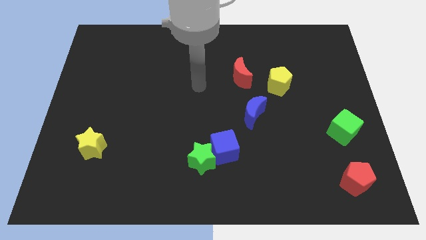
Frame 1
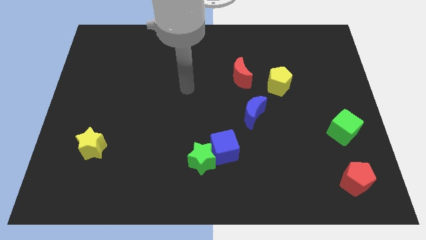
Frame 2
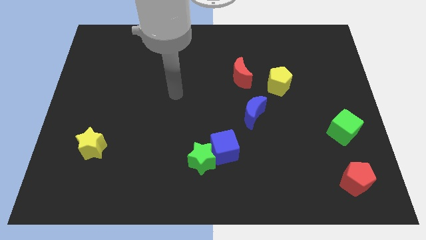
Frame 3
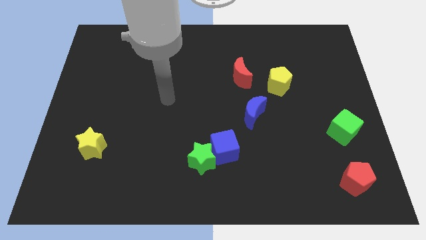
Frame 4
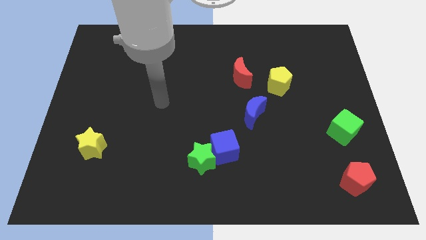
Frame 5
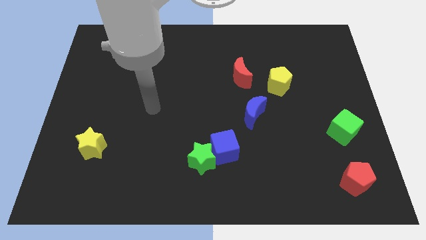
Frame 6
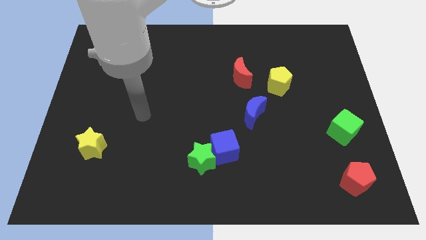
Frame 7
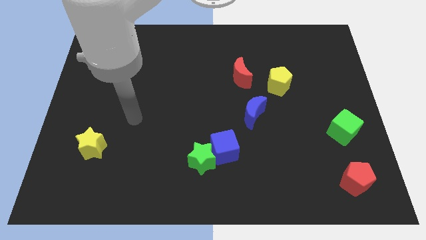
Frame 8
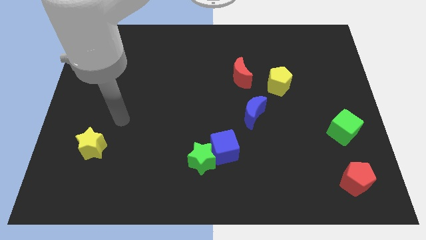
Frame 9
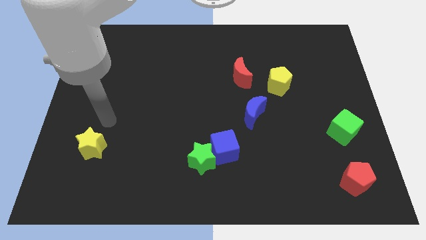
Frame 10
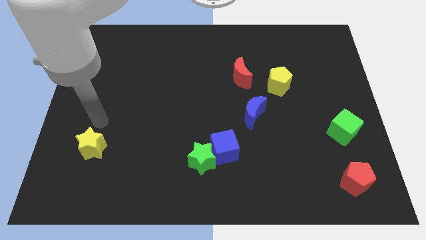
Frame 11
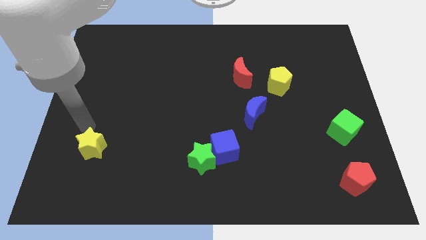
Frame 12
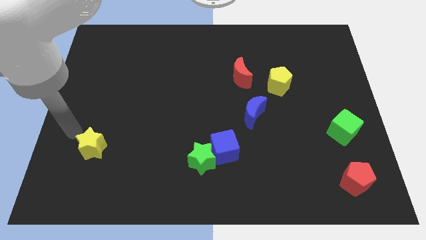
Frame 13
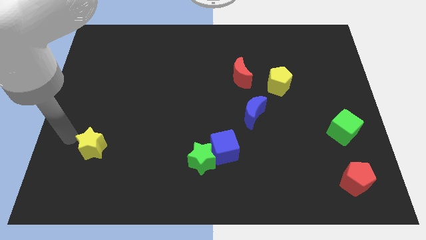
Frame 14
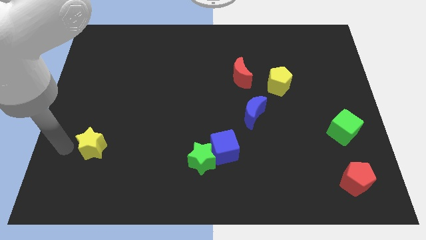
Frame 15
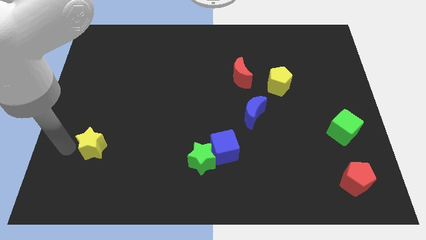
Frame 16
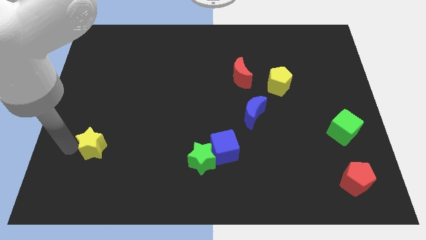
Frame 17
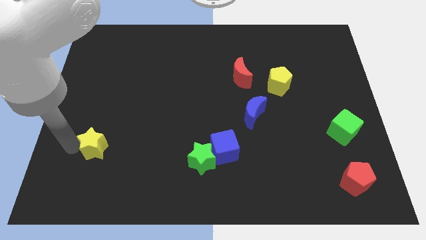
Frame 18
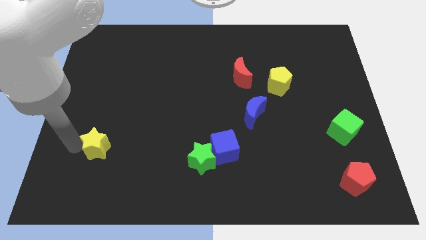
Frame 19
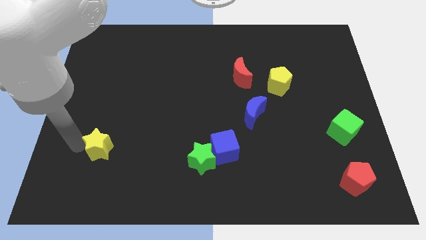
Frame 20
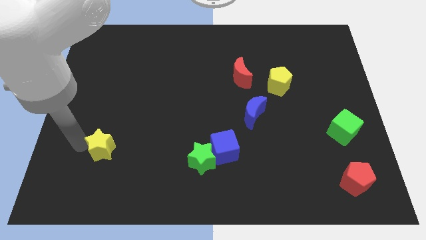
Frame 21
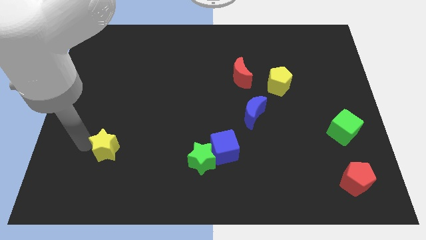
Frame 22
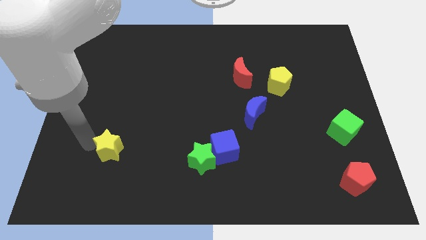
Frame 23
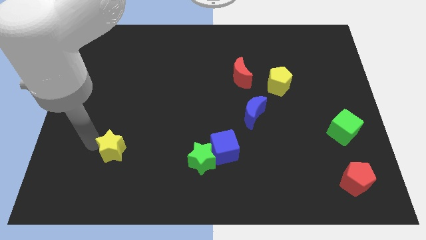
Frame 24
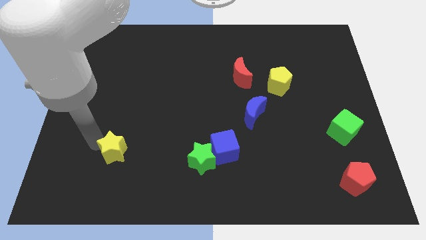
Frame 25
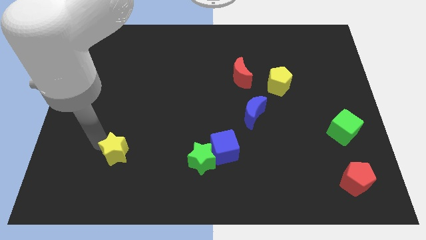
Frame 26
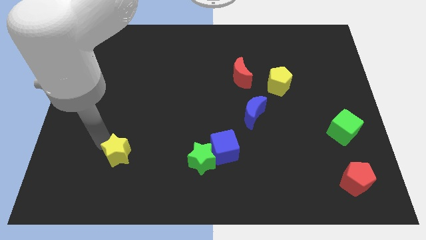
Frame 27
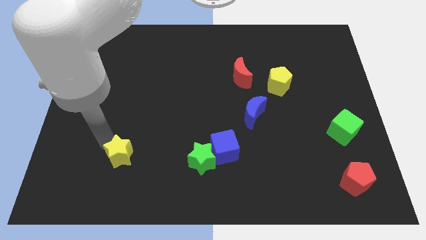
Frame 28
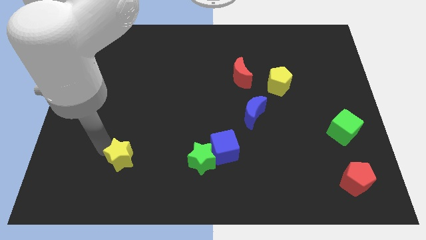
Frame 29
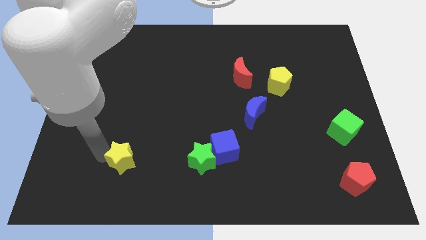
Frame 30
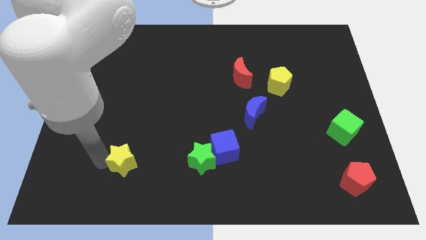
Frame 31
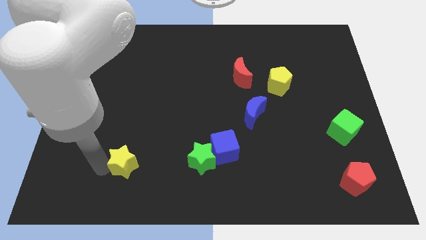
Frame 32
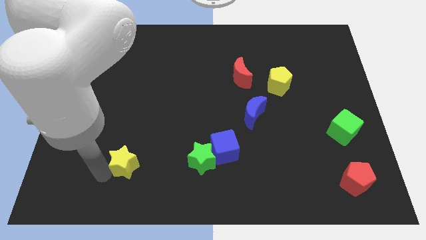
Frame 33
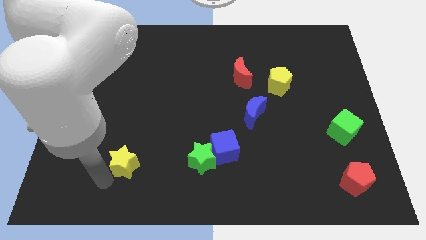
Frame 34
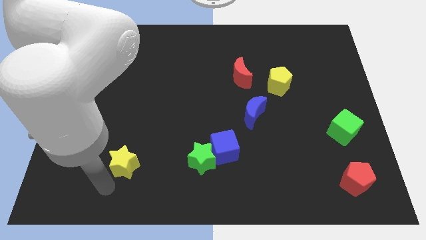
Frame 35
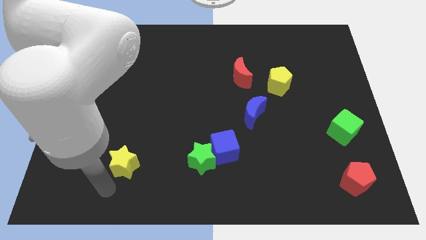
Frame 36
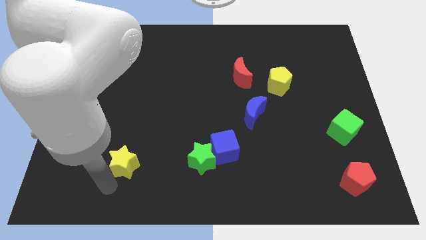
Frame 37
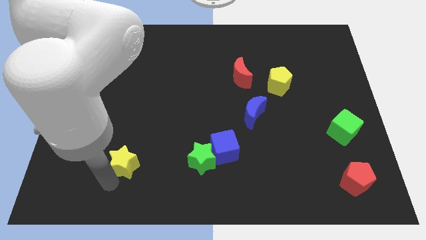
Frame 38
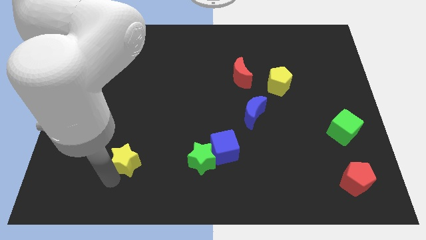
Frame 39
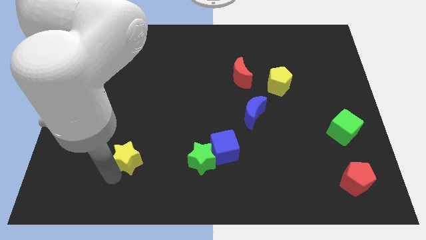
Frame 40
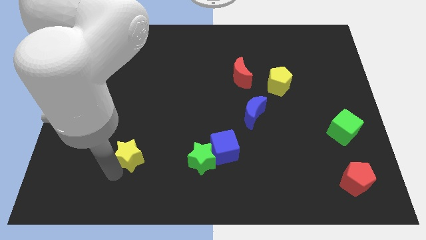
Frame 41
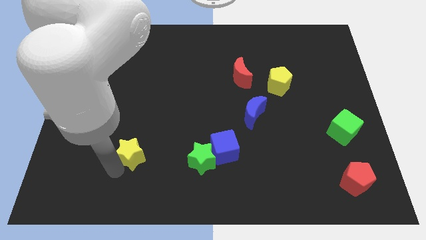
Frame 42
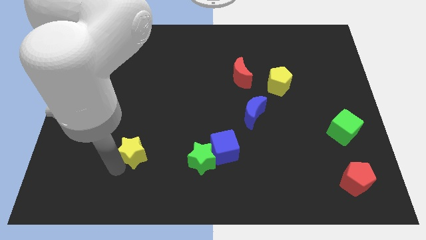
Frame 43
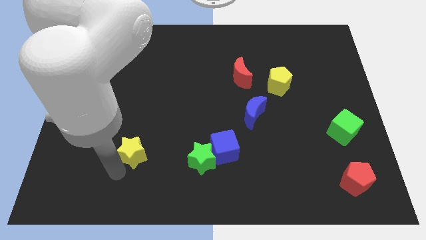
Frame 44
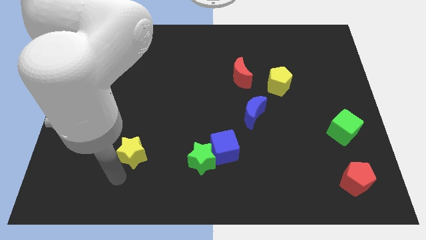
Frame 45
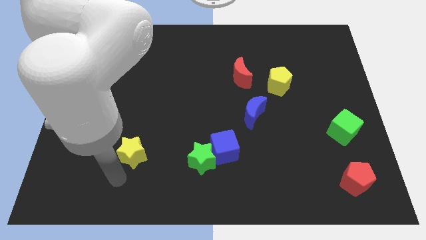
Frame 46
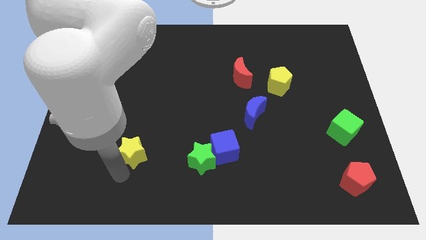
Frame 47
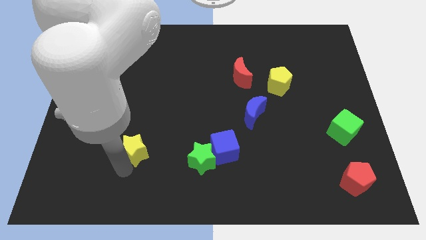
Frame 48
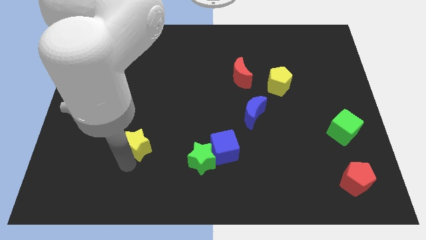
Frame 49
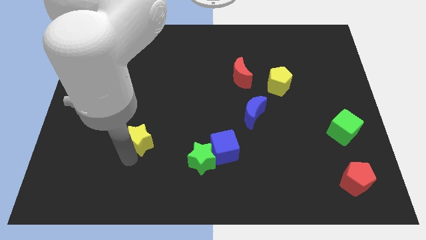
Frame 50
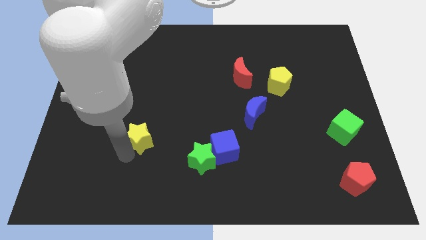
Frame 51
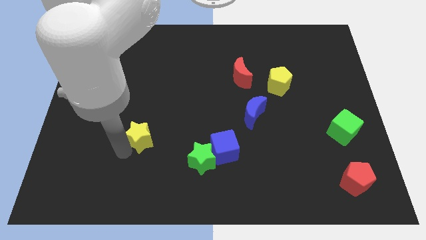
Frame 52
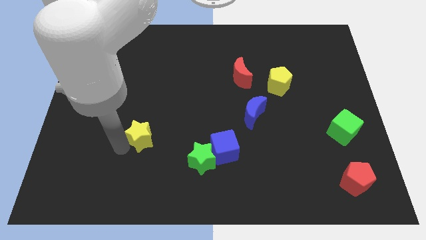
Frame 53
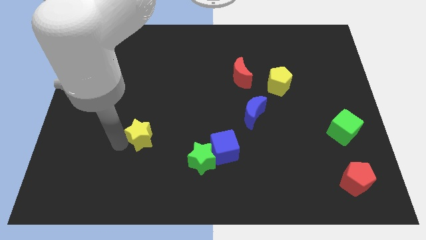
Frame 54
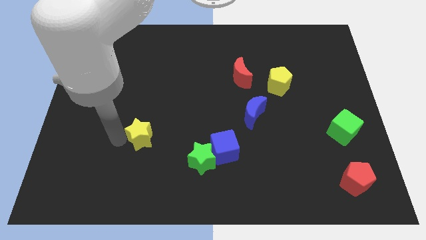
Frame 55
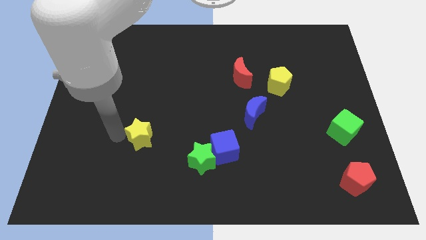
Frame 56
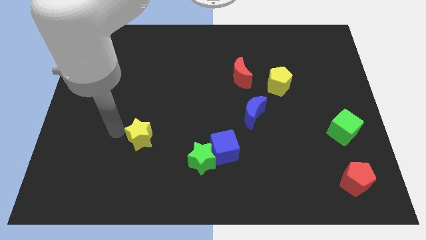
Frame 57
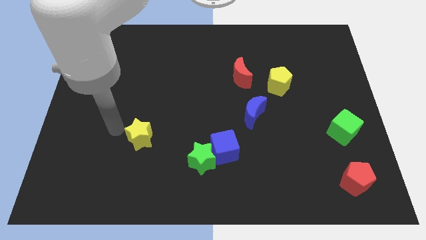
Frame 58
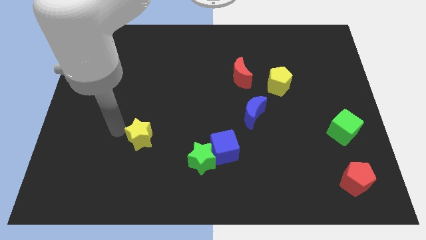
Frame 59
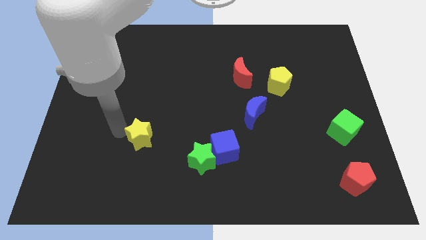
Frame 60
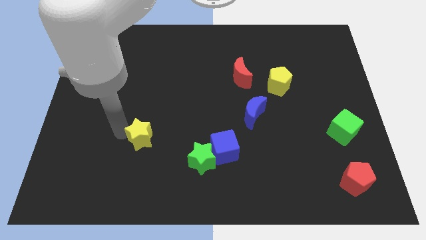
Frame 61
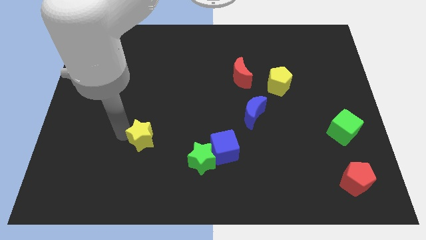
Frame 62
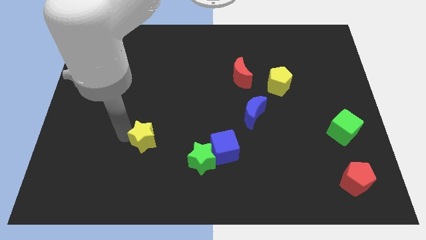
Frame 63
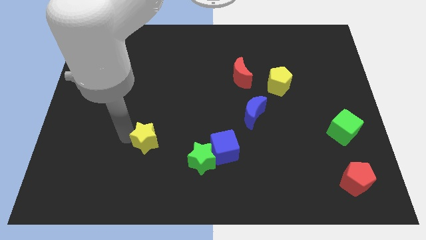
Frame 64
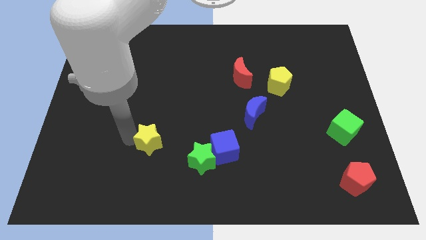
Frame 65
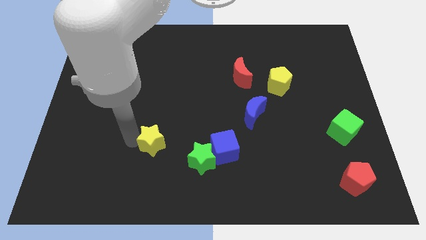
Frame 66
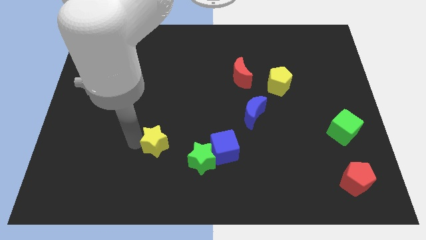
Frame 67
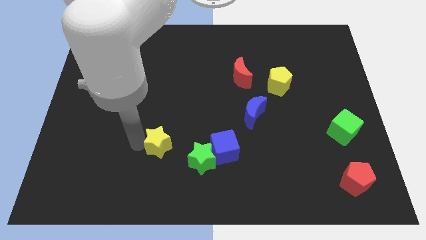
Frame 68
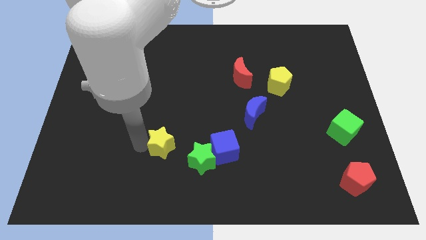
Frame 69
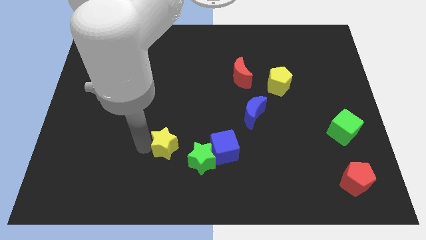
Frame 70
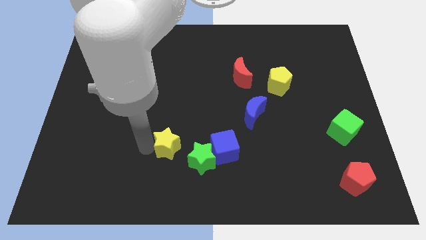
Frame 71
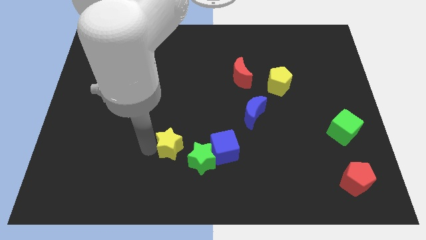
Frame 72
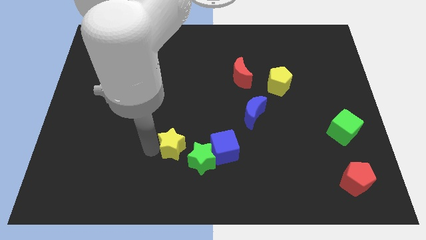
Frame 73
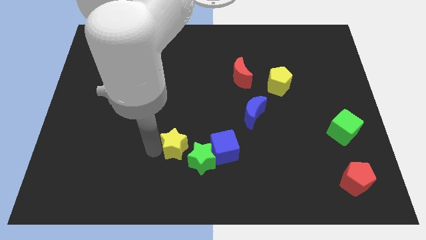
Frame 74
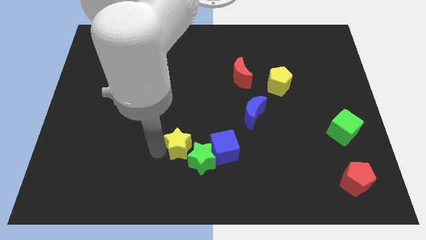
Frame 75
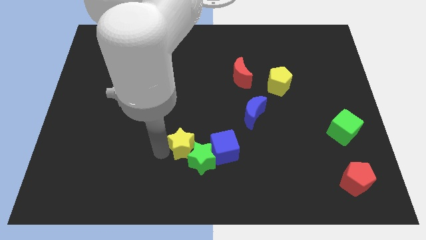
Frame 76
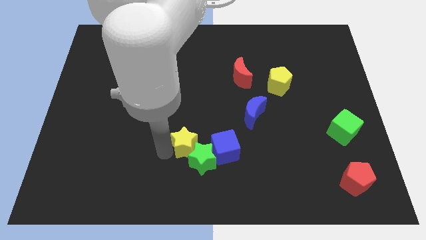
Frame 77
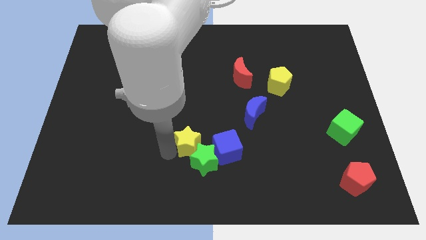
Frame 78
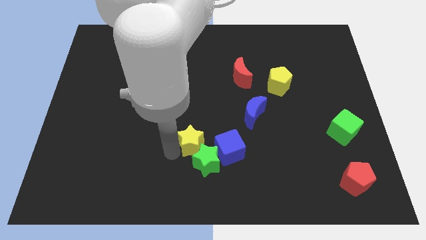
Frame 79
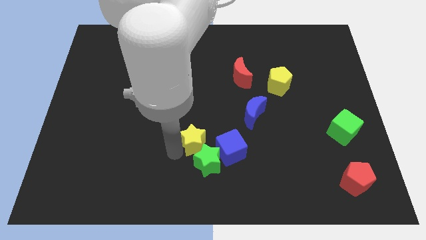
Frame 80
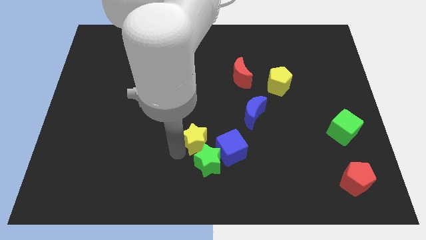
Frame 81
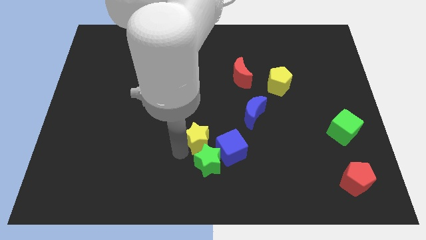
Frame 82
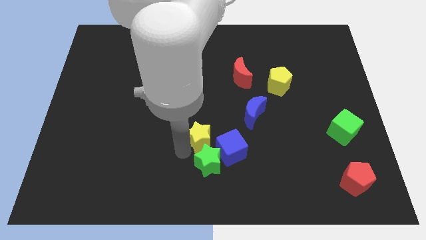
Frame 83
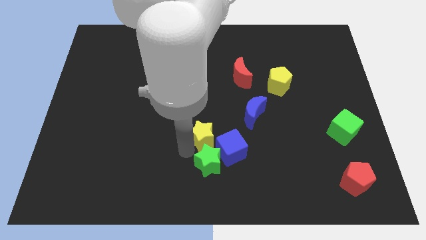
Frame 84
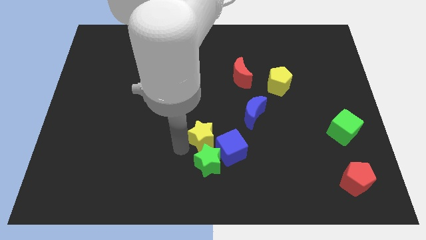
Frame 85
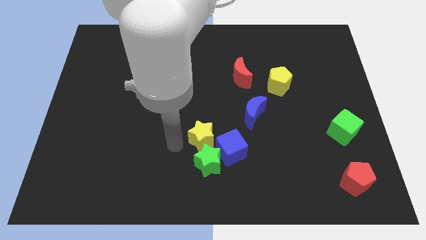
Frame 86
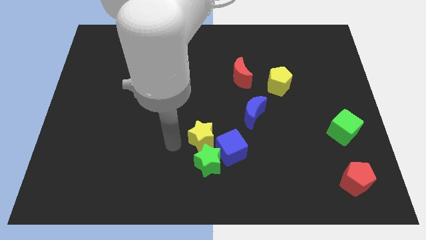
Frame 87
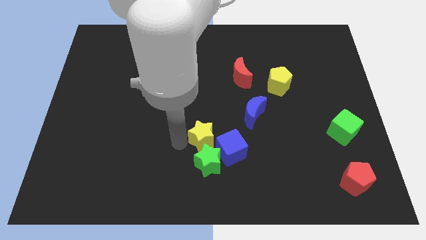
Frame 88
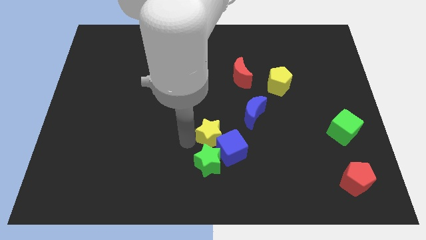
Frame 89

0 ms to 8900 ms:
slide the yellow star diagonally down and to the left of the blue moon
